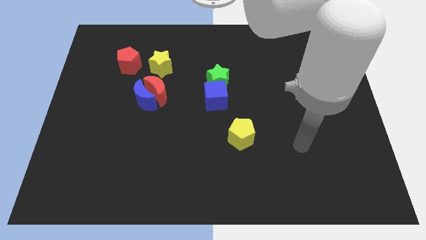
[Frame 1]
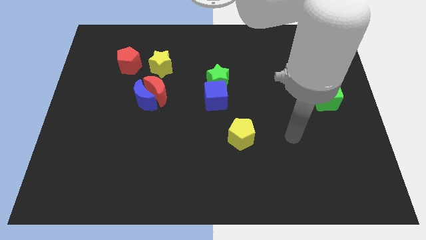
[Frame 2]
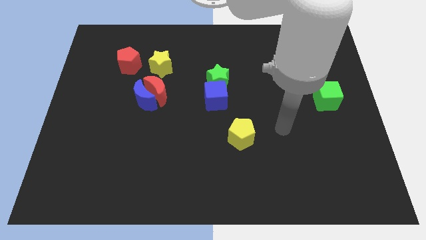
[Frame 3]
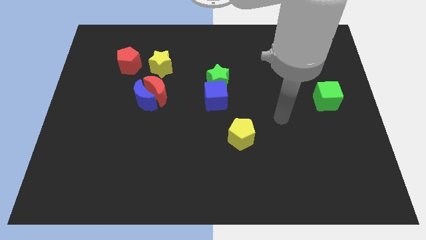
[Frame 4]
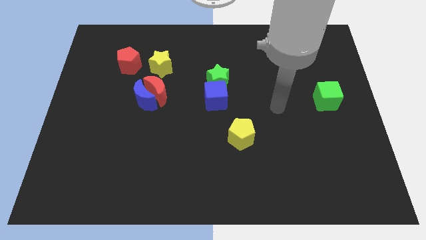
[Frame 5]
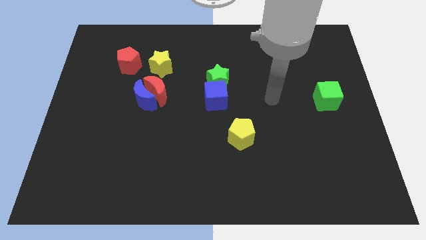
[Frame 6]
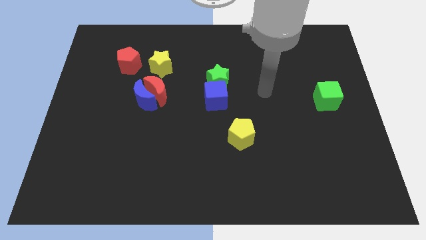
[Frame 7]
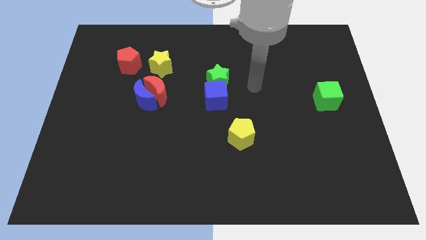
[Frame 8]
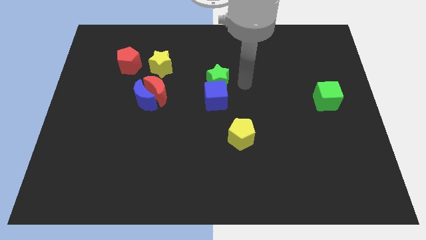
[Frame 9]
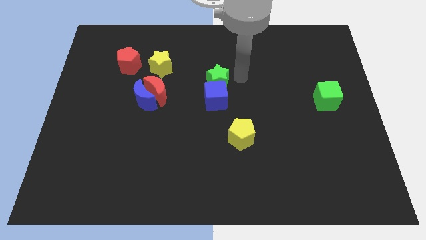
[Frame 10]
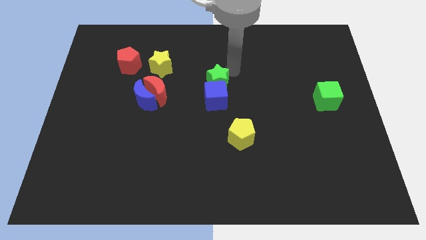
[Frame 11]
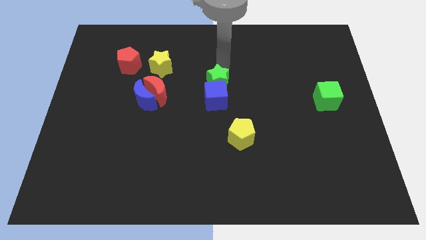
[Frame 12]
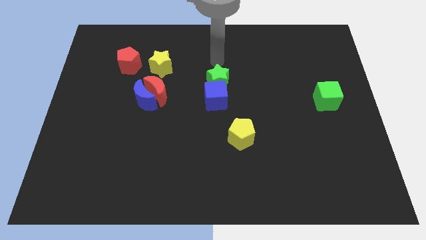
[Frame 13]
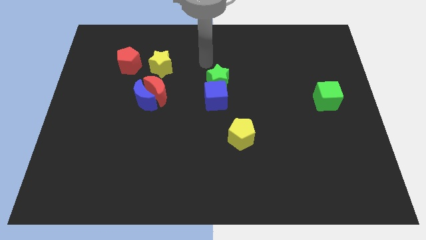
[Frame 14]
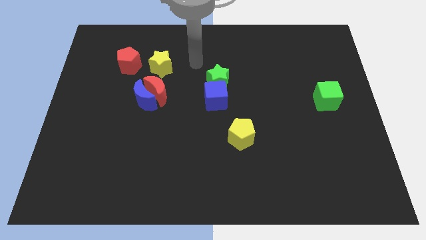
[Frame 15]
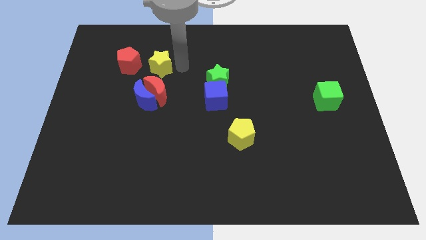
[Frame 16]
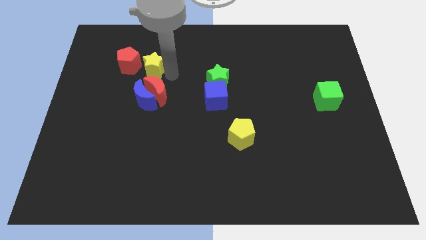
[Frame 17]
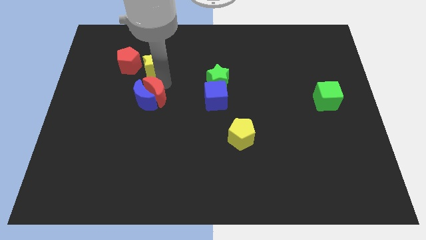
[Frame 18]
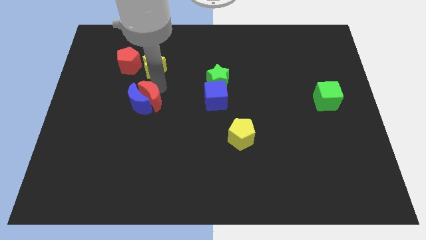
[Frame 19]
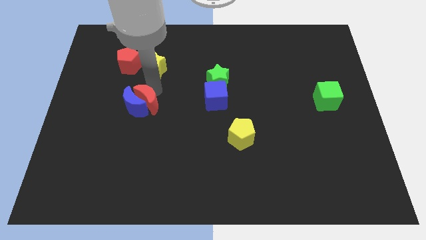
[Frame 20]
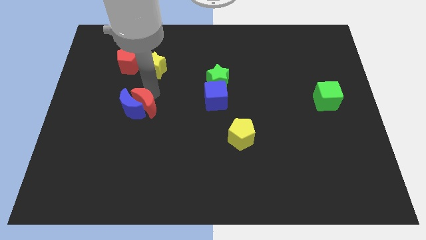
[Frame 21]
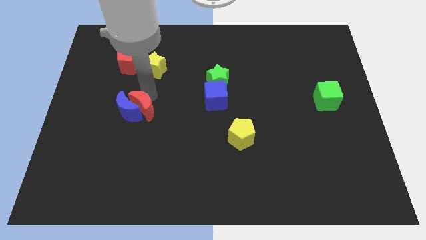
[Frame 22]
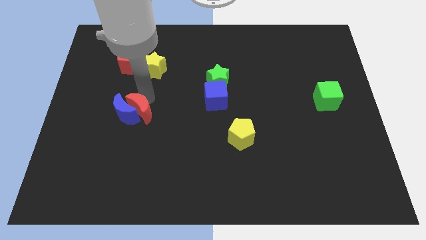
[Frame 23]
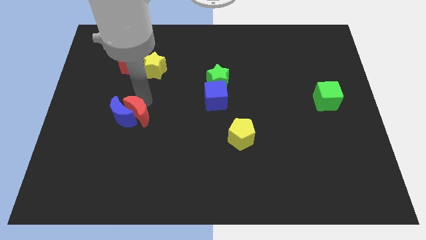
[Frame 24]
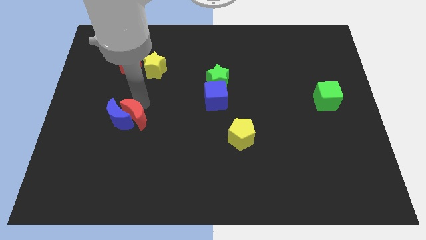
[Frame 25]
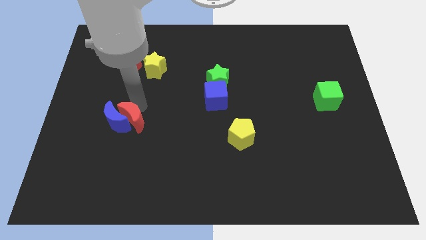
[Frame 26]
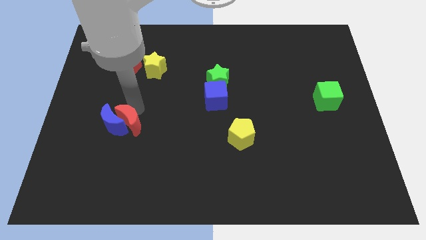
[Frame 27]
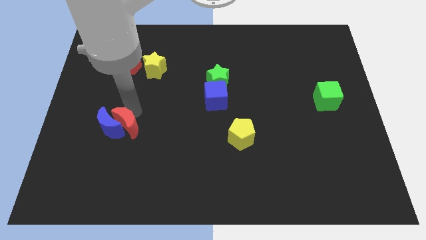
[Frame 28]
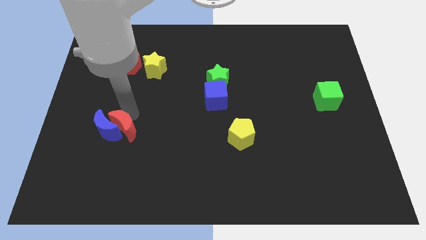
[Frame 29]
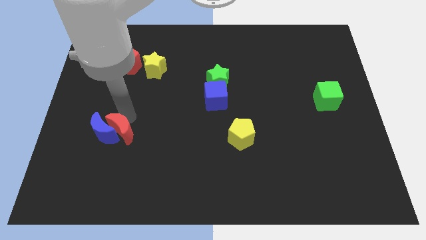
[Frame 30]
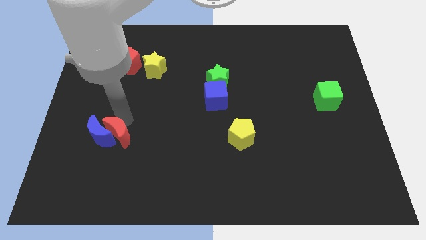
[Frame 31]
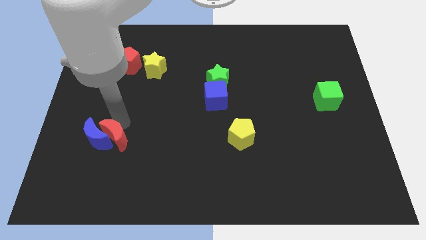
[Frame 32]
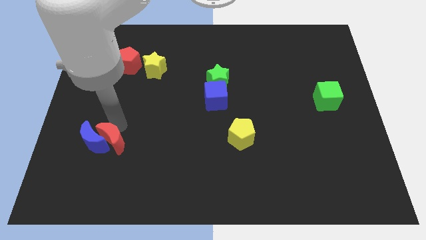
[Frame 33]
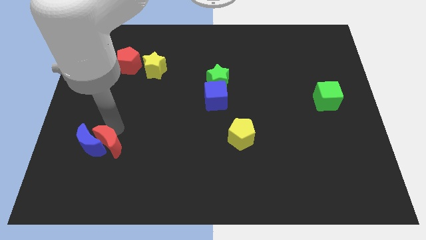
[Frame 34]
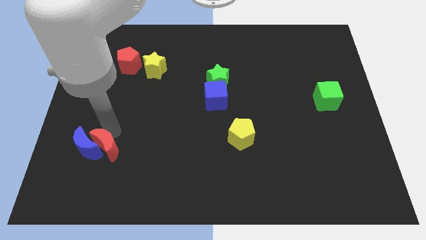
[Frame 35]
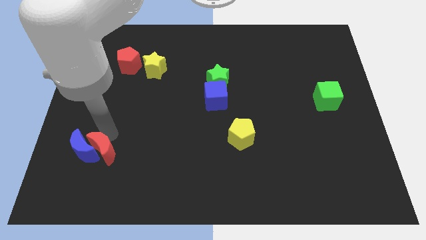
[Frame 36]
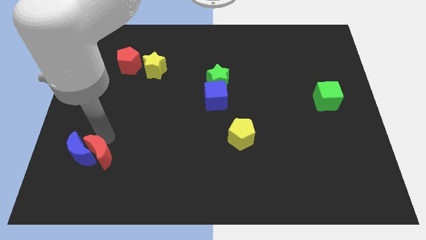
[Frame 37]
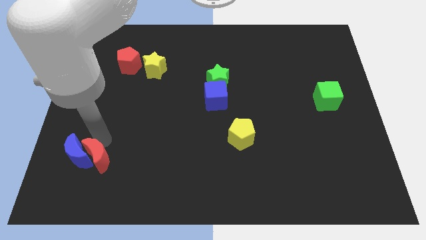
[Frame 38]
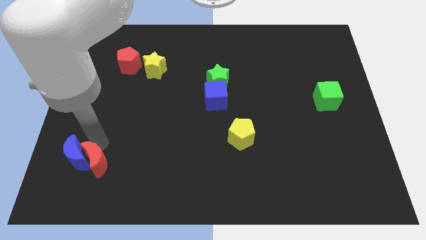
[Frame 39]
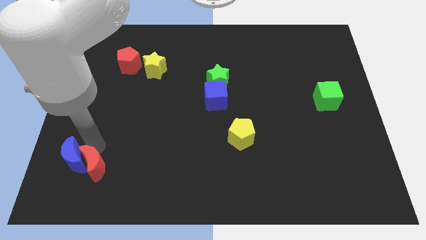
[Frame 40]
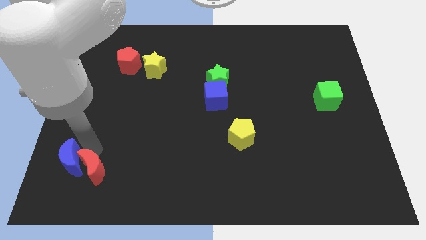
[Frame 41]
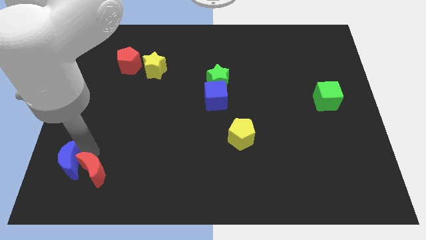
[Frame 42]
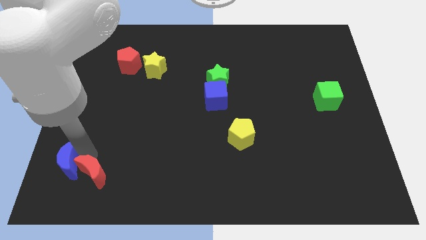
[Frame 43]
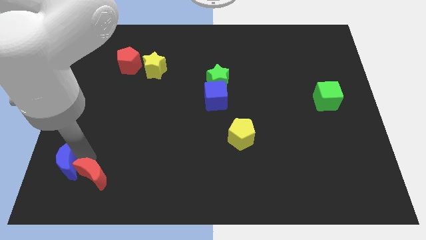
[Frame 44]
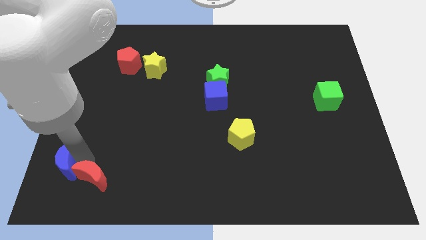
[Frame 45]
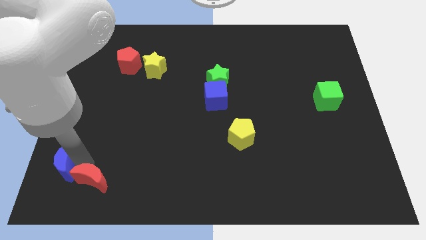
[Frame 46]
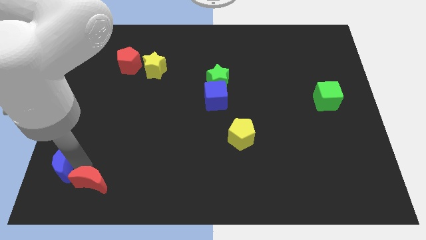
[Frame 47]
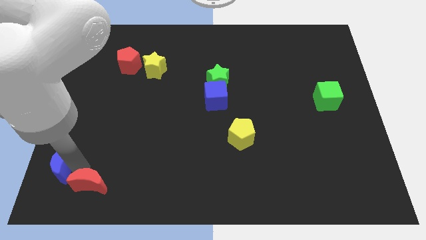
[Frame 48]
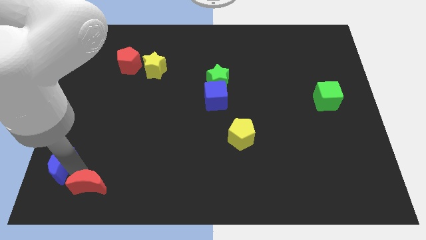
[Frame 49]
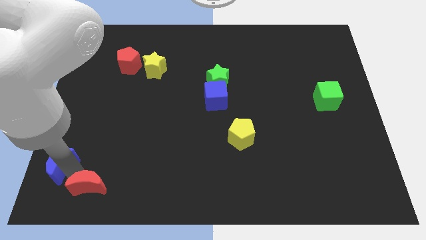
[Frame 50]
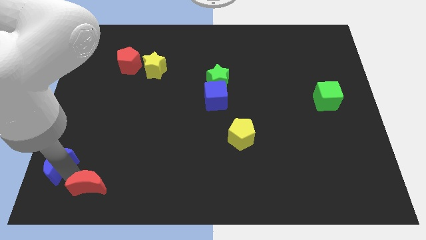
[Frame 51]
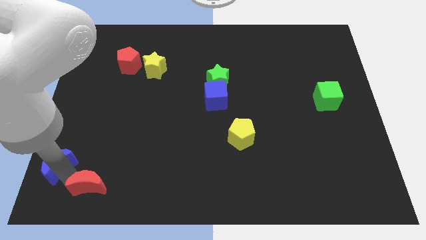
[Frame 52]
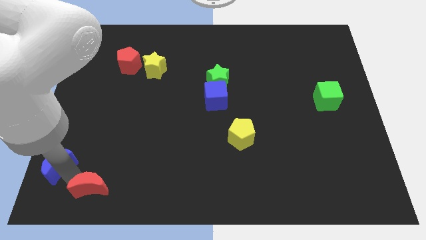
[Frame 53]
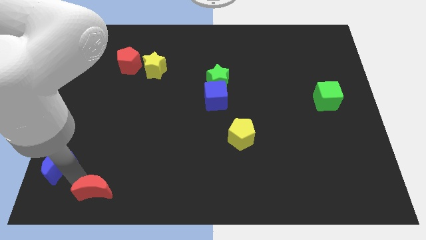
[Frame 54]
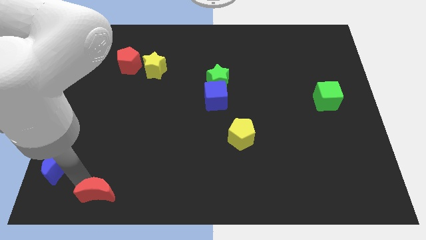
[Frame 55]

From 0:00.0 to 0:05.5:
pull the blue moon apart from the red moon

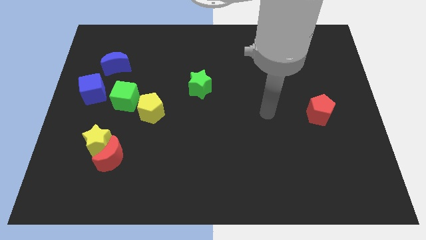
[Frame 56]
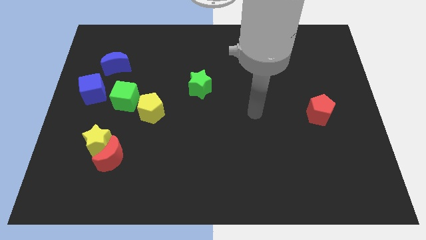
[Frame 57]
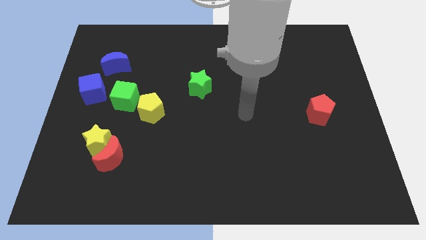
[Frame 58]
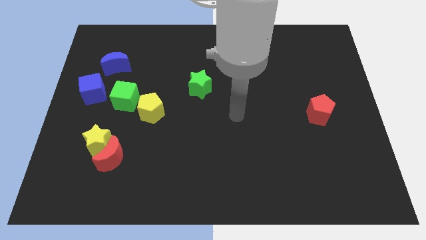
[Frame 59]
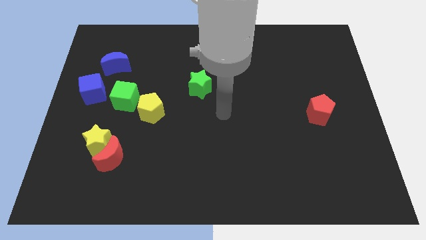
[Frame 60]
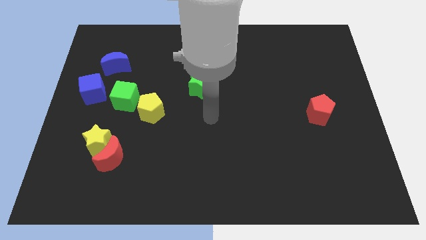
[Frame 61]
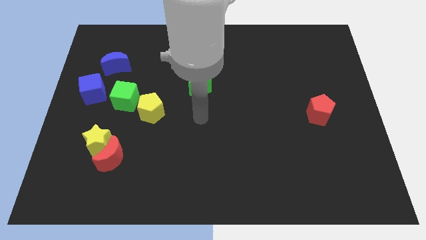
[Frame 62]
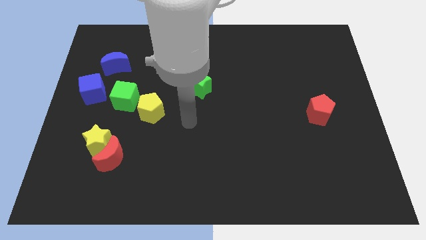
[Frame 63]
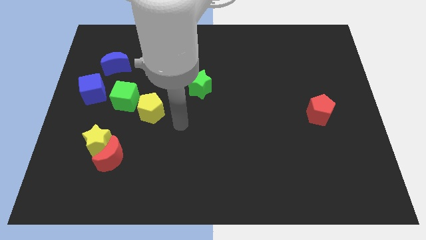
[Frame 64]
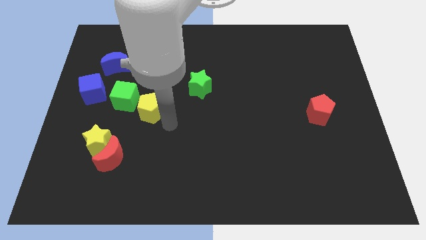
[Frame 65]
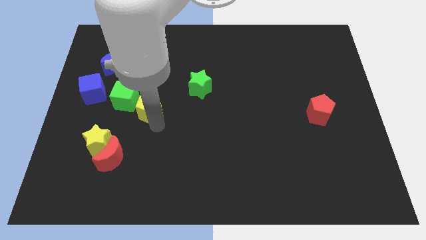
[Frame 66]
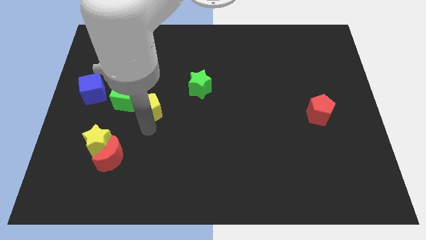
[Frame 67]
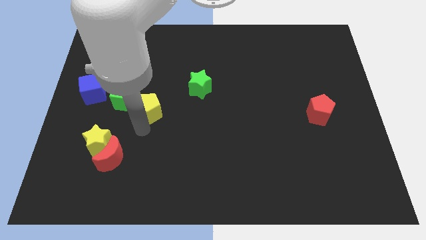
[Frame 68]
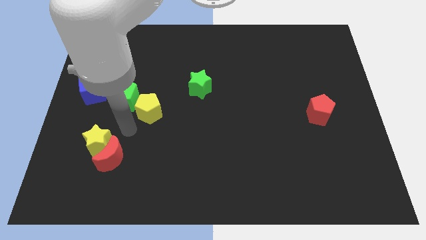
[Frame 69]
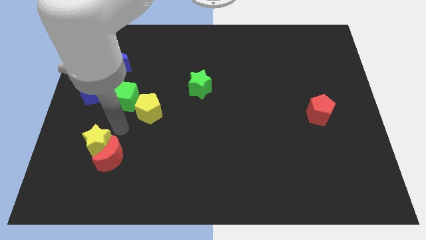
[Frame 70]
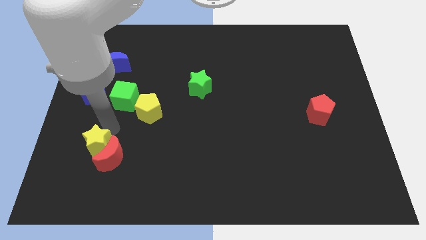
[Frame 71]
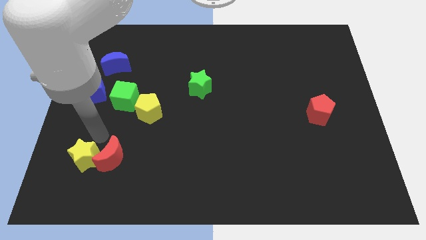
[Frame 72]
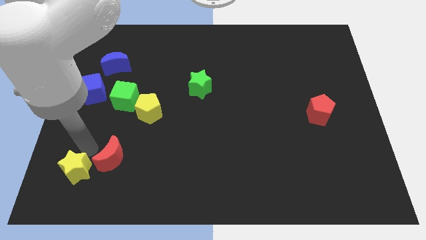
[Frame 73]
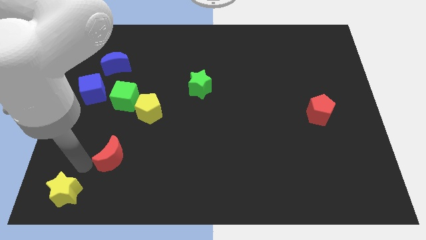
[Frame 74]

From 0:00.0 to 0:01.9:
move the red moon away from the yellow star

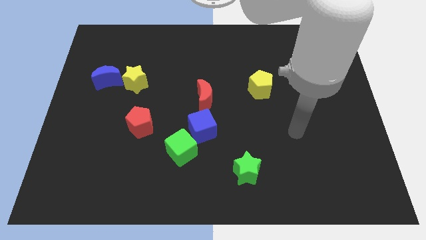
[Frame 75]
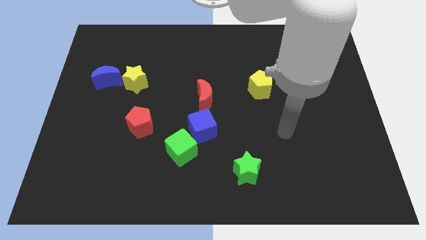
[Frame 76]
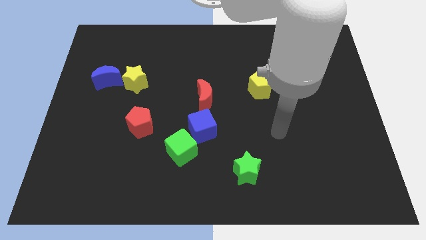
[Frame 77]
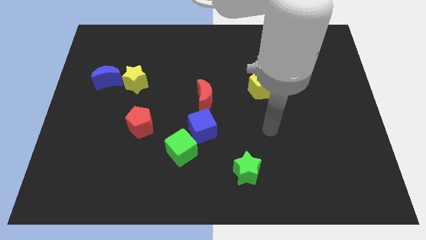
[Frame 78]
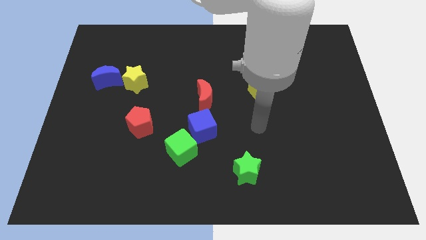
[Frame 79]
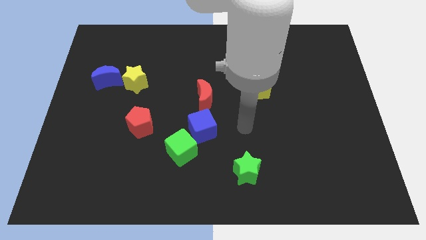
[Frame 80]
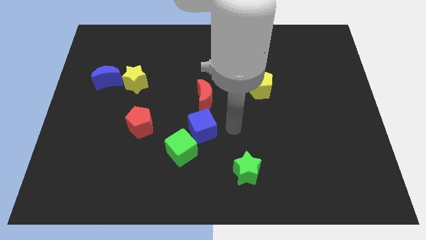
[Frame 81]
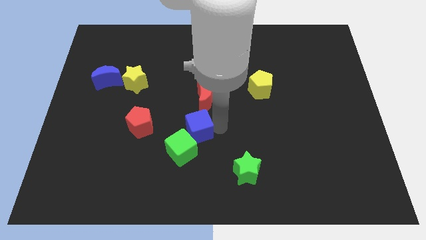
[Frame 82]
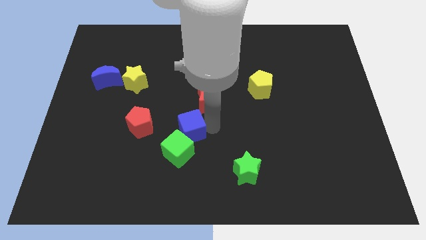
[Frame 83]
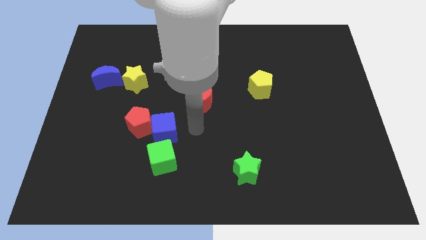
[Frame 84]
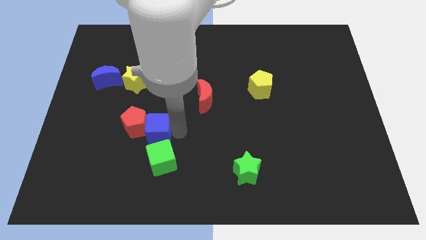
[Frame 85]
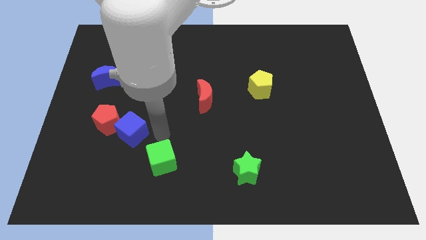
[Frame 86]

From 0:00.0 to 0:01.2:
move the green cube away from the blue cube

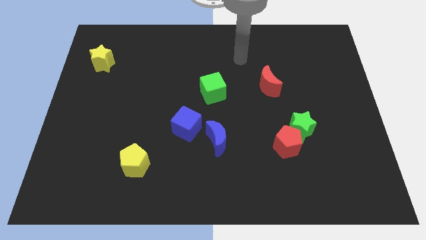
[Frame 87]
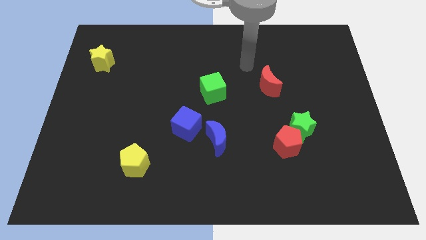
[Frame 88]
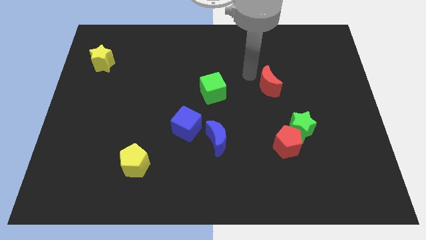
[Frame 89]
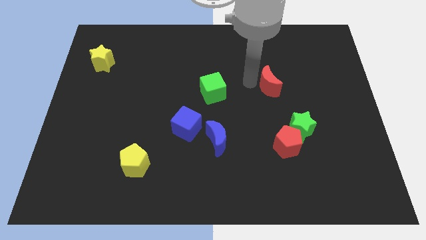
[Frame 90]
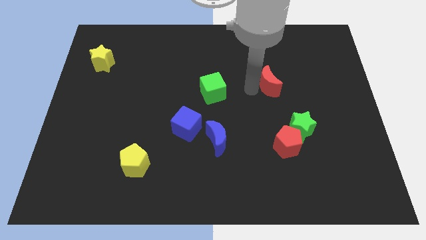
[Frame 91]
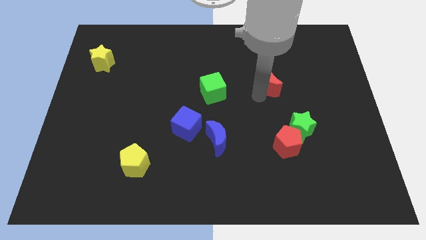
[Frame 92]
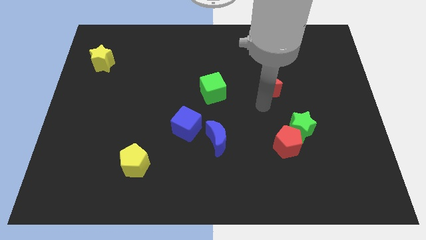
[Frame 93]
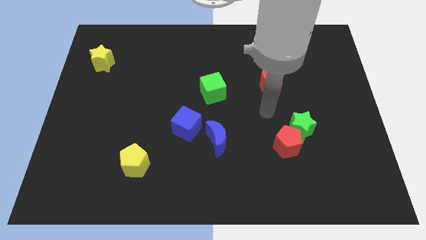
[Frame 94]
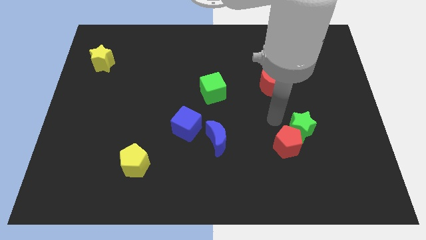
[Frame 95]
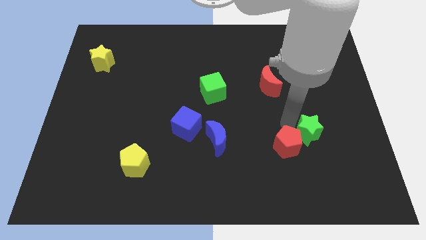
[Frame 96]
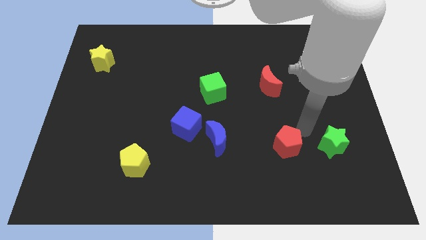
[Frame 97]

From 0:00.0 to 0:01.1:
move the red pentagon away from the green star
